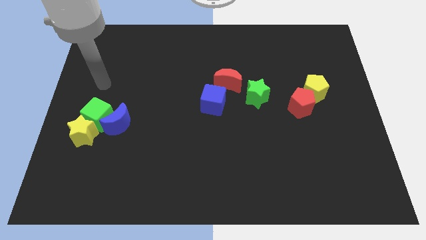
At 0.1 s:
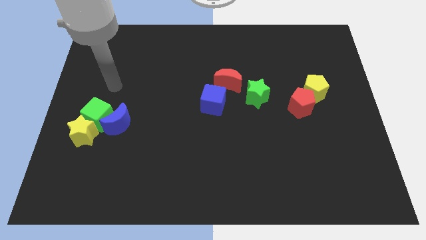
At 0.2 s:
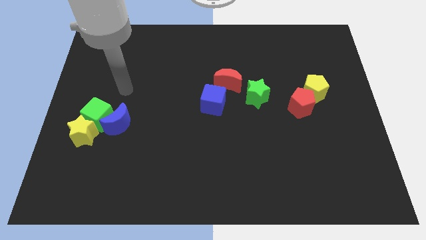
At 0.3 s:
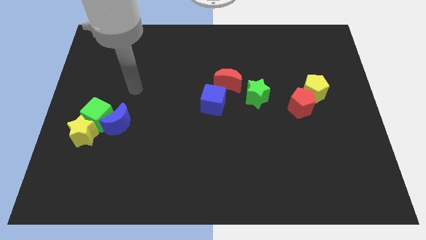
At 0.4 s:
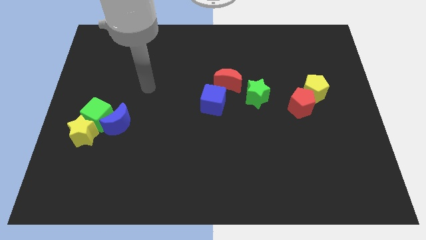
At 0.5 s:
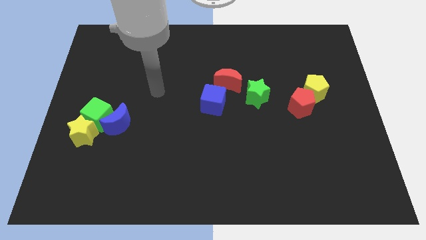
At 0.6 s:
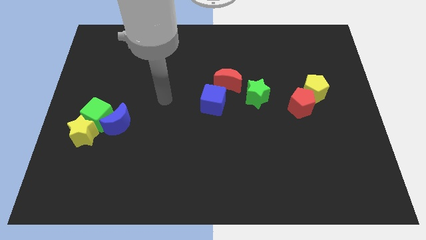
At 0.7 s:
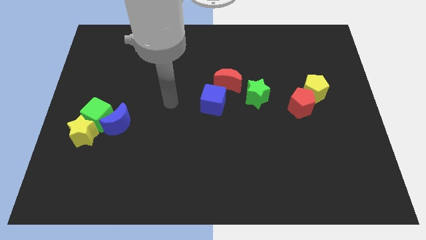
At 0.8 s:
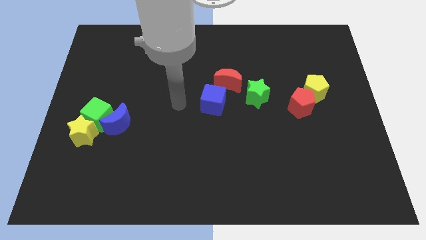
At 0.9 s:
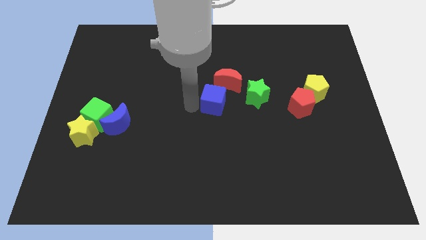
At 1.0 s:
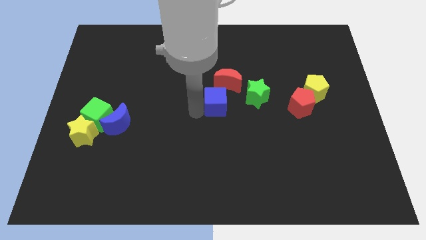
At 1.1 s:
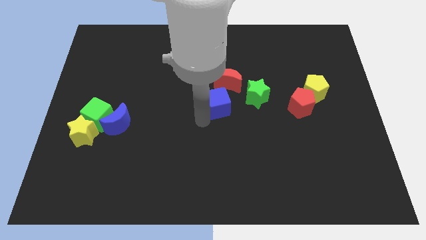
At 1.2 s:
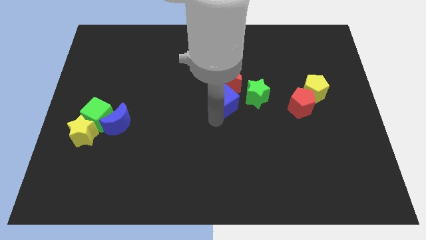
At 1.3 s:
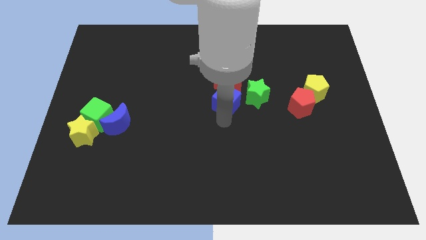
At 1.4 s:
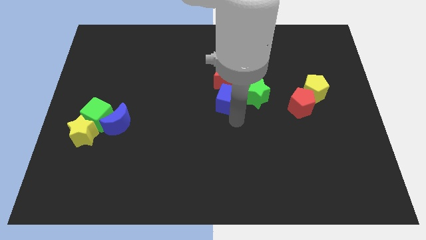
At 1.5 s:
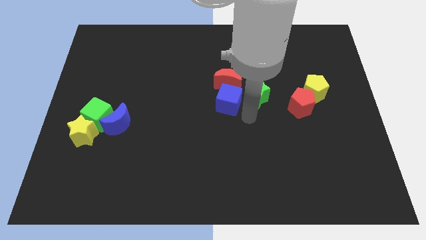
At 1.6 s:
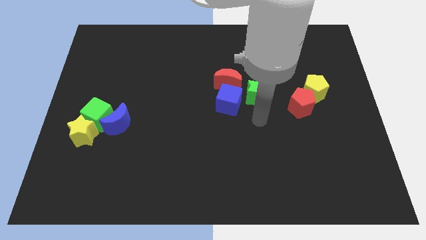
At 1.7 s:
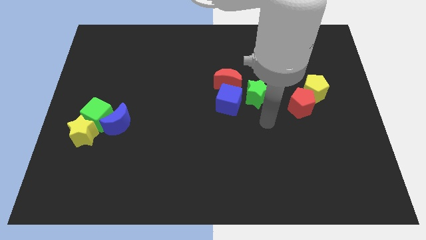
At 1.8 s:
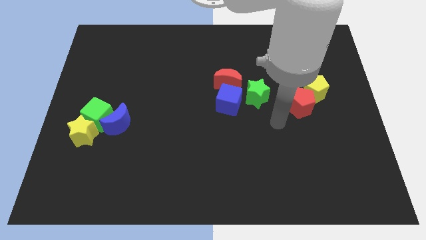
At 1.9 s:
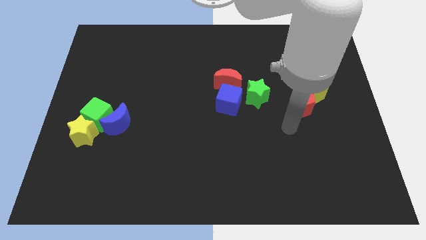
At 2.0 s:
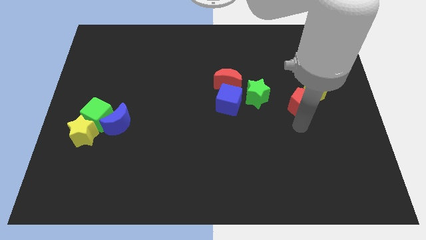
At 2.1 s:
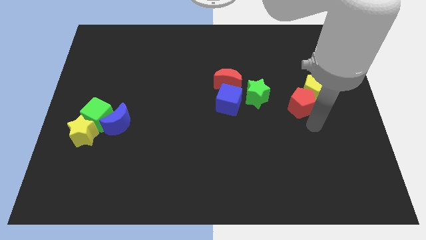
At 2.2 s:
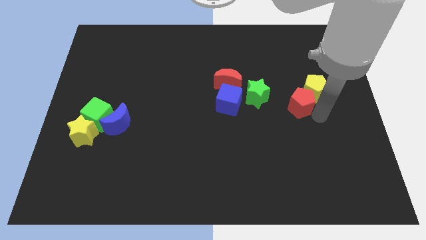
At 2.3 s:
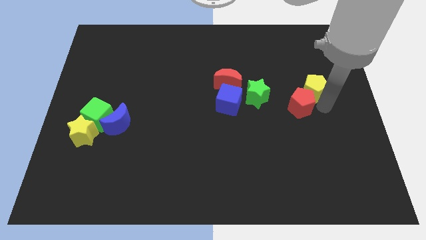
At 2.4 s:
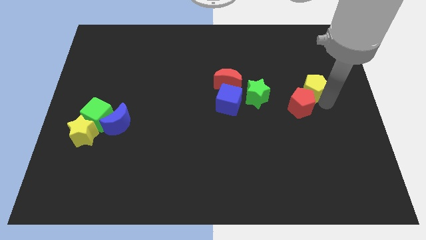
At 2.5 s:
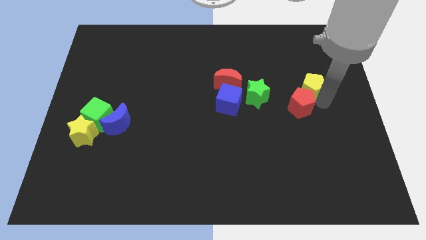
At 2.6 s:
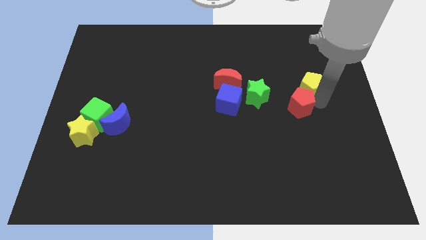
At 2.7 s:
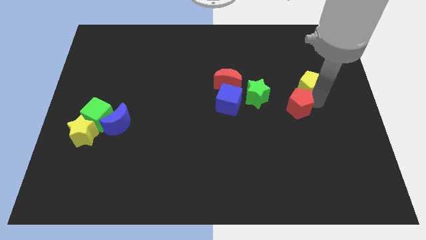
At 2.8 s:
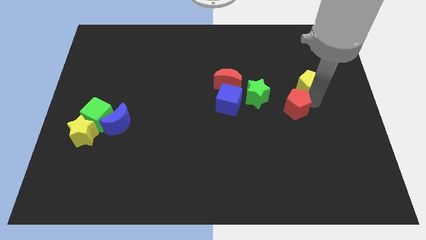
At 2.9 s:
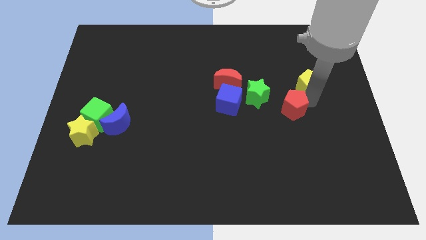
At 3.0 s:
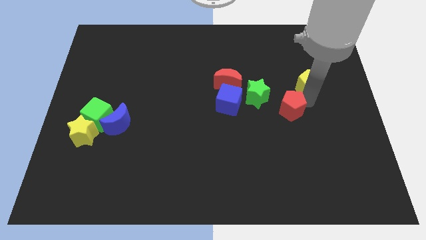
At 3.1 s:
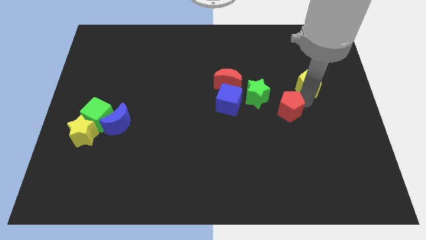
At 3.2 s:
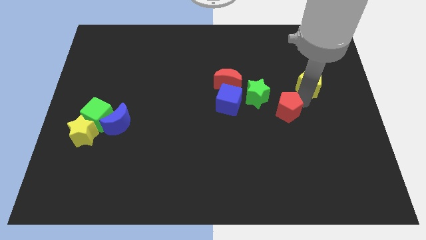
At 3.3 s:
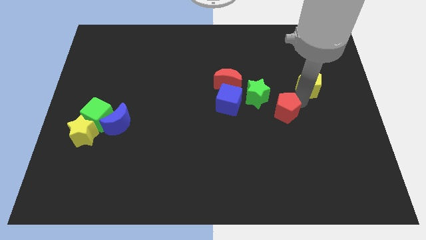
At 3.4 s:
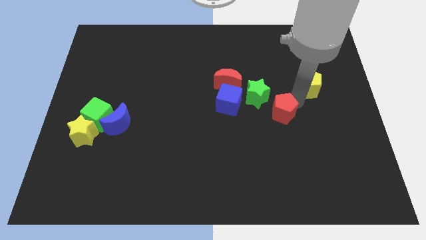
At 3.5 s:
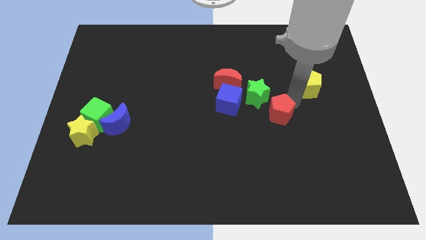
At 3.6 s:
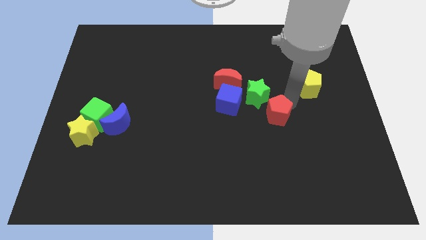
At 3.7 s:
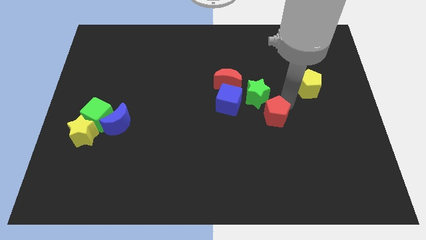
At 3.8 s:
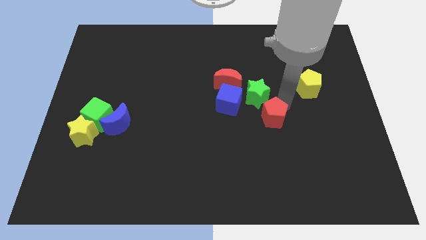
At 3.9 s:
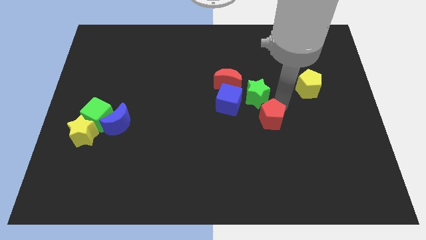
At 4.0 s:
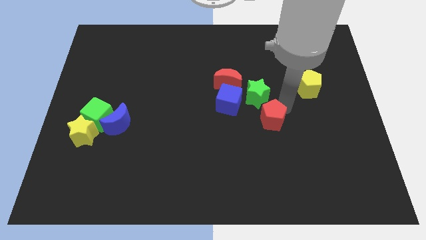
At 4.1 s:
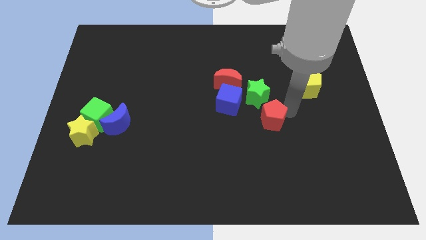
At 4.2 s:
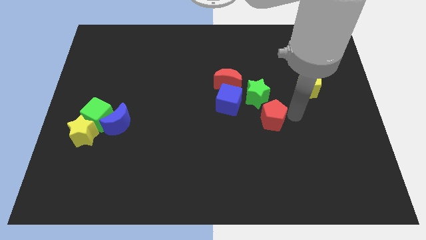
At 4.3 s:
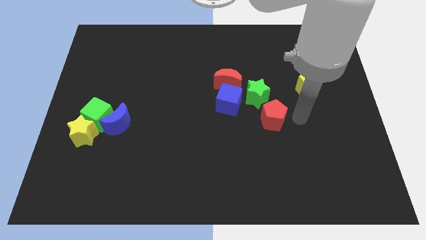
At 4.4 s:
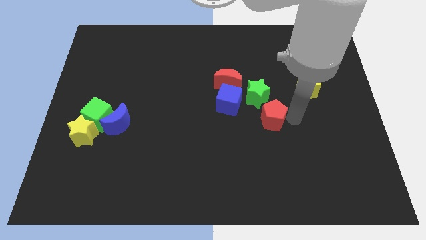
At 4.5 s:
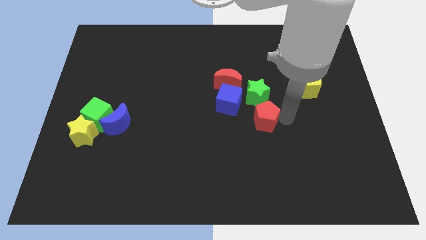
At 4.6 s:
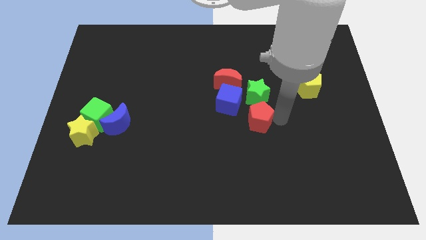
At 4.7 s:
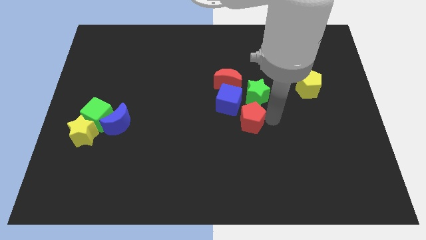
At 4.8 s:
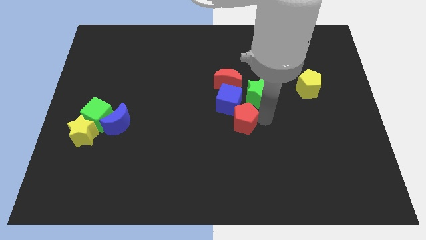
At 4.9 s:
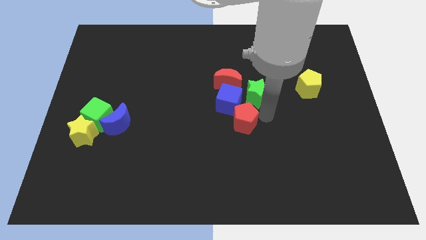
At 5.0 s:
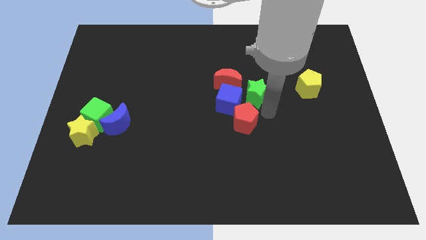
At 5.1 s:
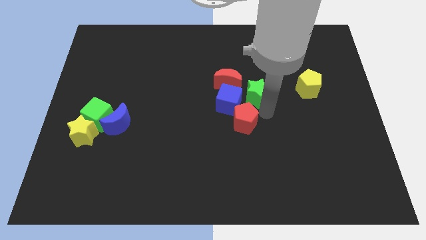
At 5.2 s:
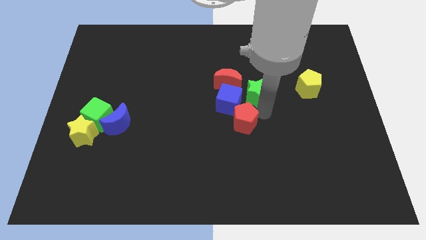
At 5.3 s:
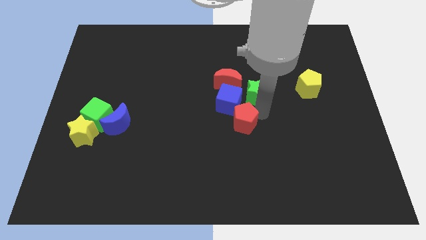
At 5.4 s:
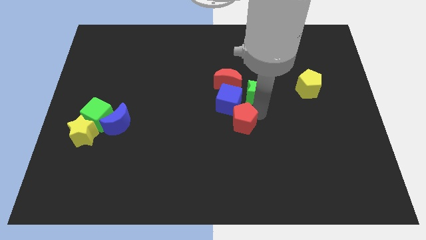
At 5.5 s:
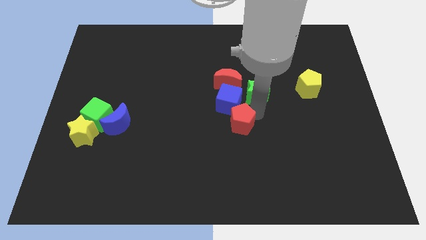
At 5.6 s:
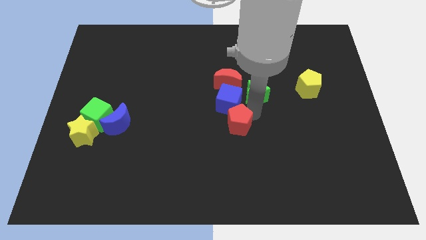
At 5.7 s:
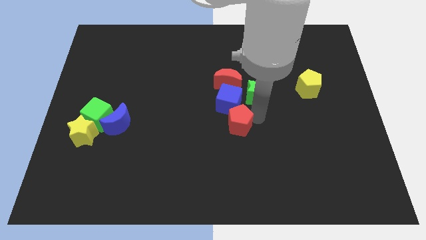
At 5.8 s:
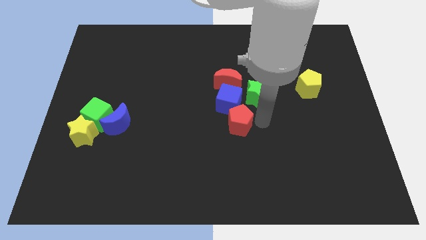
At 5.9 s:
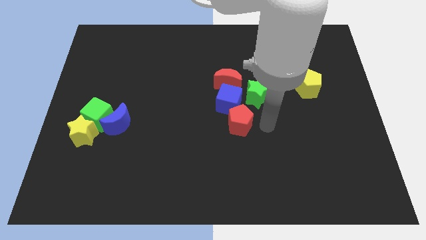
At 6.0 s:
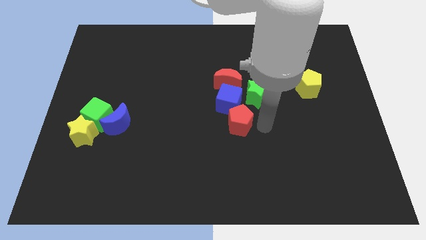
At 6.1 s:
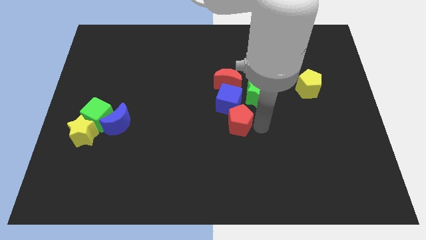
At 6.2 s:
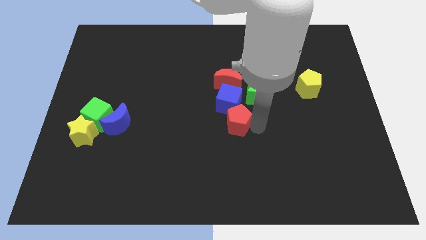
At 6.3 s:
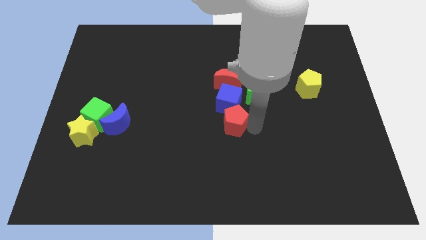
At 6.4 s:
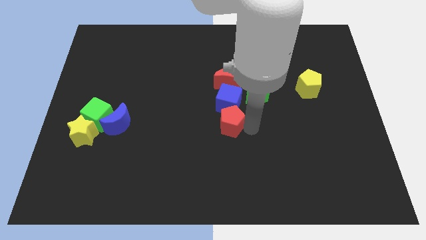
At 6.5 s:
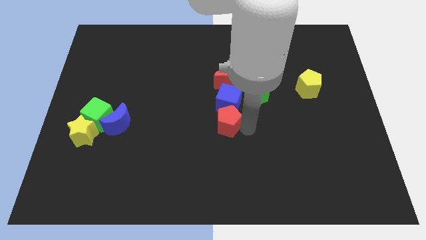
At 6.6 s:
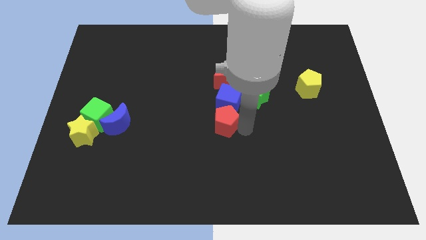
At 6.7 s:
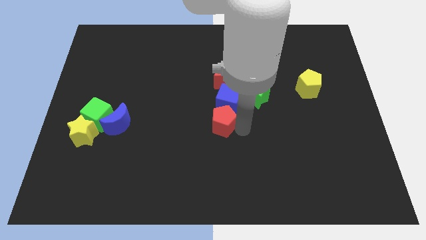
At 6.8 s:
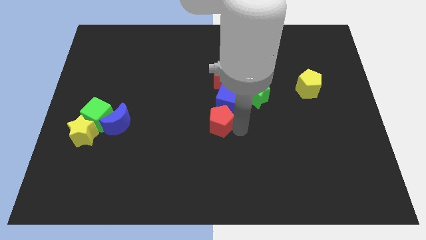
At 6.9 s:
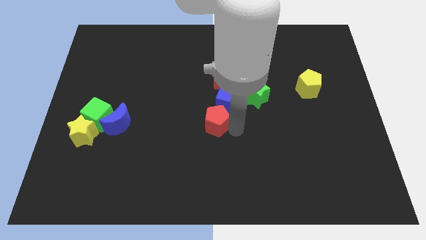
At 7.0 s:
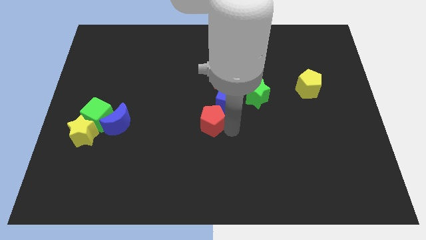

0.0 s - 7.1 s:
move the red pentagon to the left

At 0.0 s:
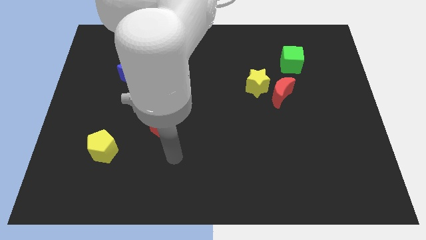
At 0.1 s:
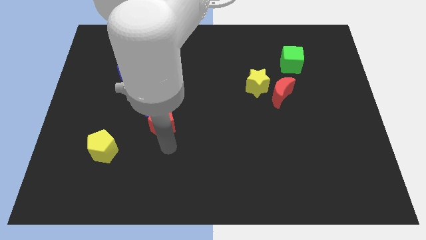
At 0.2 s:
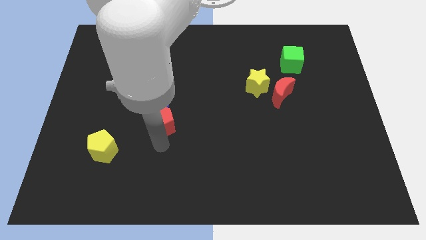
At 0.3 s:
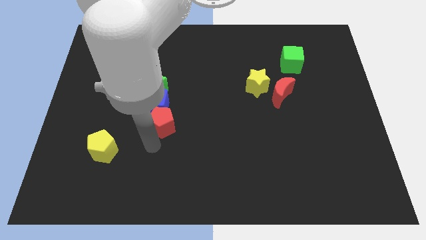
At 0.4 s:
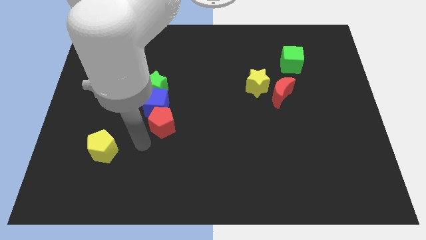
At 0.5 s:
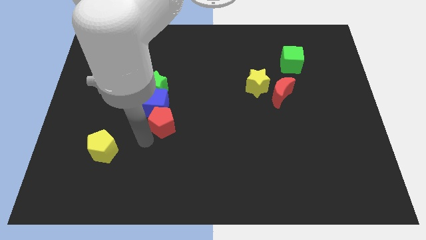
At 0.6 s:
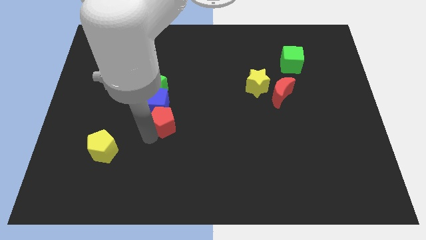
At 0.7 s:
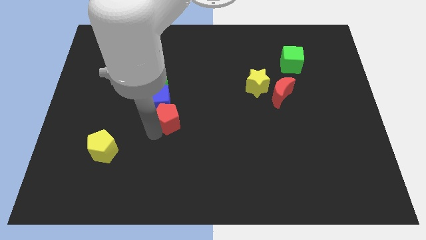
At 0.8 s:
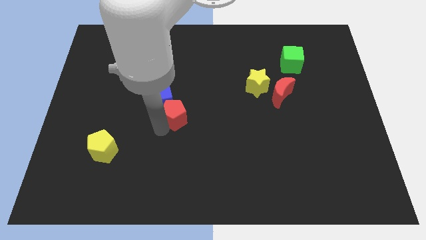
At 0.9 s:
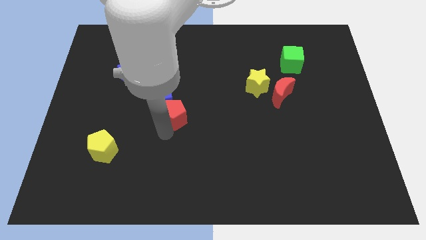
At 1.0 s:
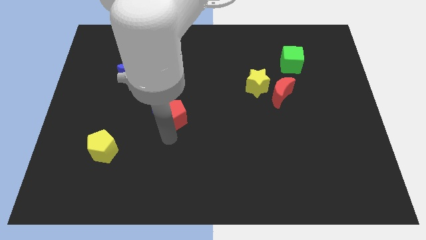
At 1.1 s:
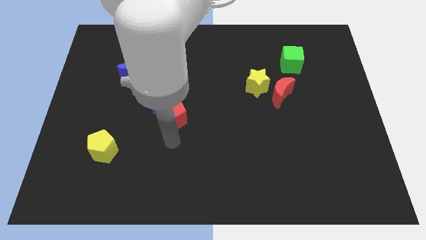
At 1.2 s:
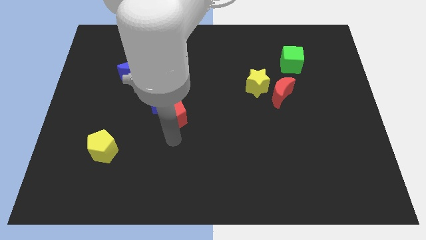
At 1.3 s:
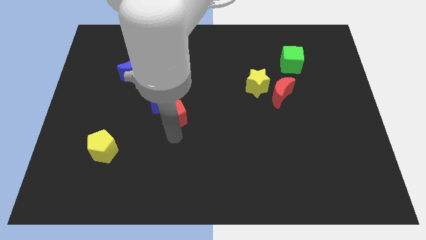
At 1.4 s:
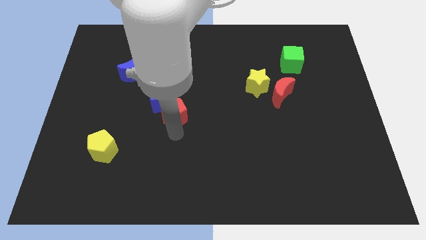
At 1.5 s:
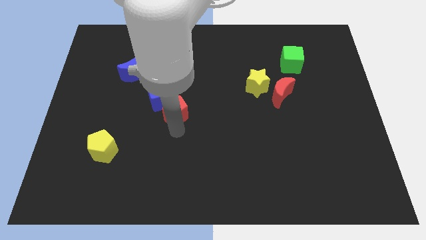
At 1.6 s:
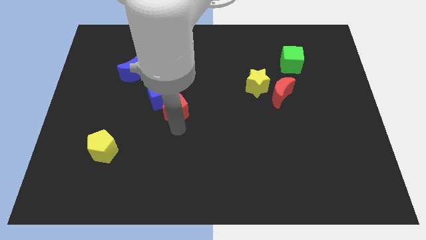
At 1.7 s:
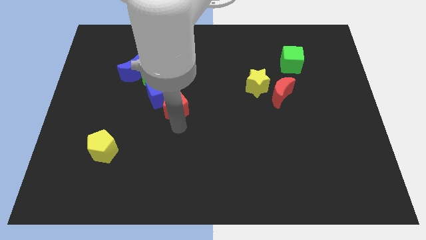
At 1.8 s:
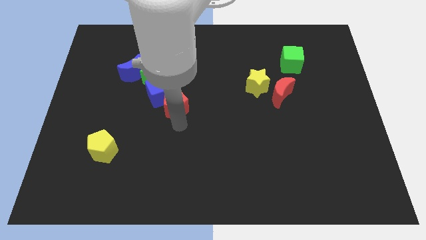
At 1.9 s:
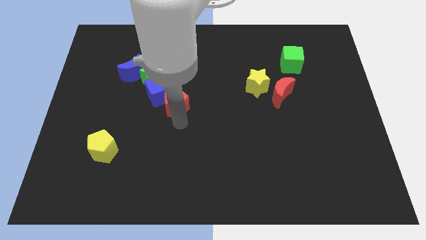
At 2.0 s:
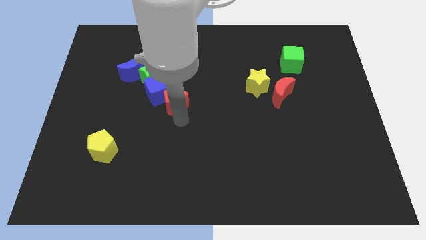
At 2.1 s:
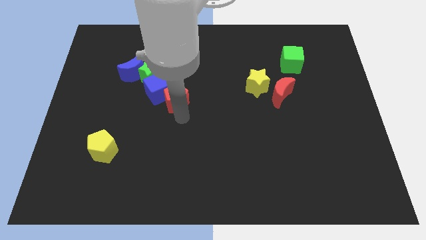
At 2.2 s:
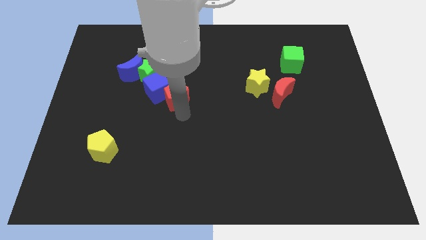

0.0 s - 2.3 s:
slide the red pentagon a little up
